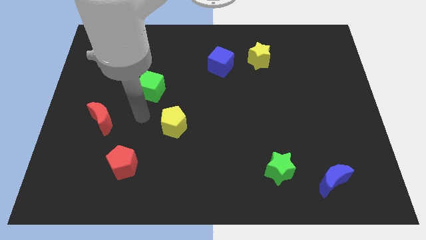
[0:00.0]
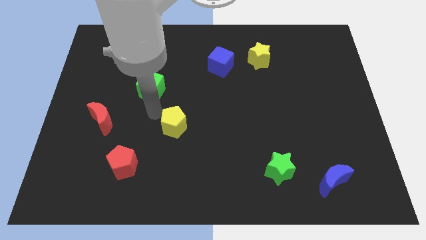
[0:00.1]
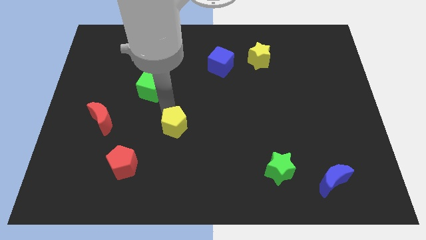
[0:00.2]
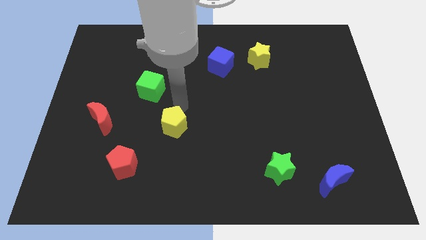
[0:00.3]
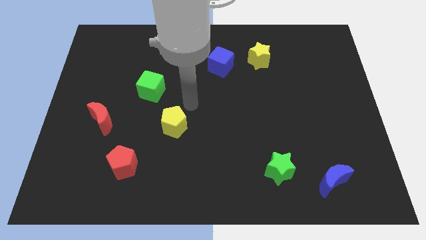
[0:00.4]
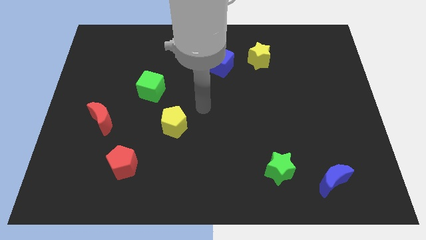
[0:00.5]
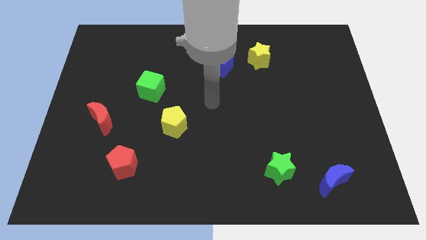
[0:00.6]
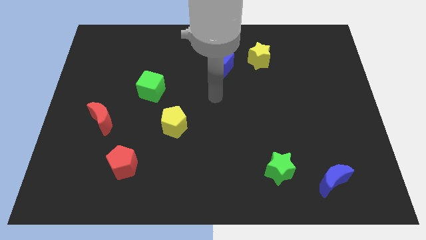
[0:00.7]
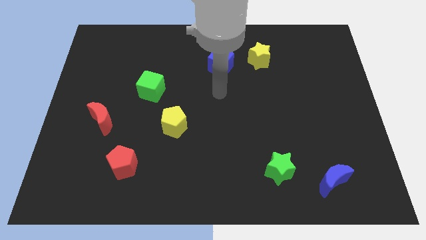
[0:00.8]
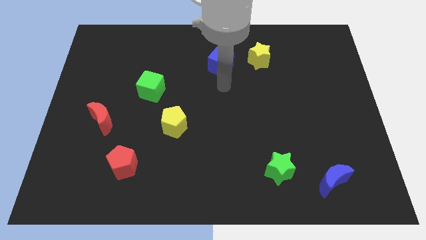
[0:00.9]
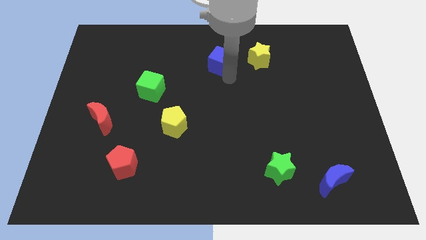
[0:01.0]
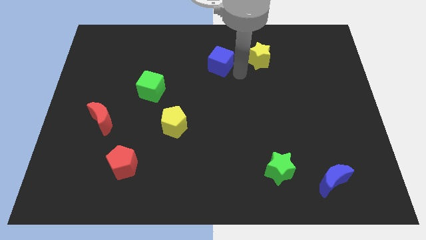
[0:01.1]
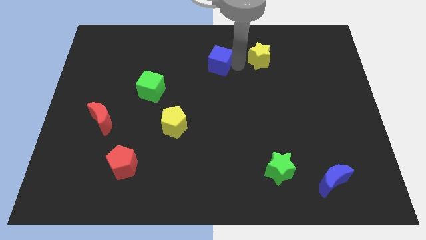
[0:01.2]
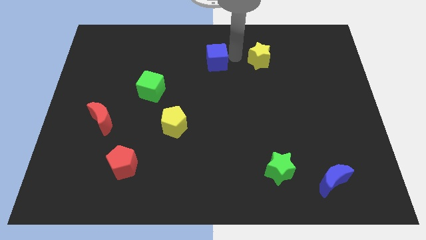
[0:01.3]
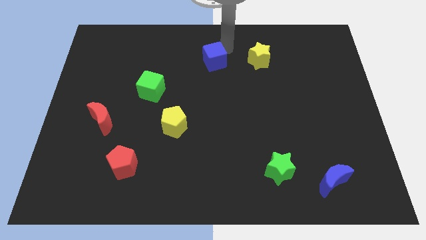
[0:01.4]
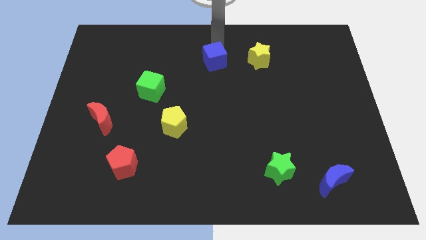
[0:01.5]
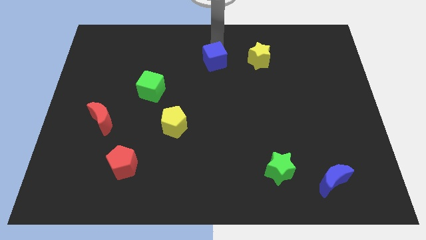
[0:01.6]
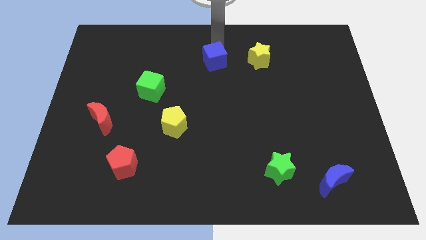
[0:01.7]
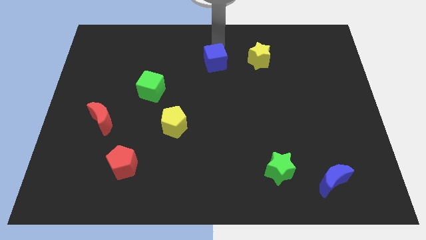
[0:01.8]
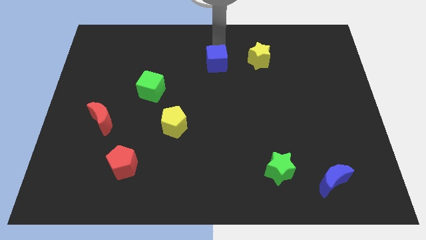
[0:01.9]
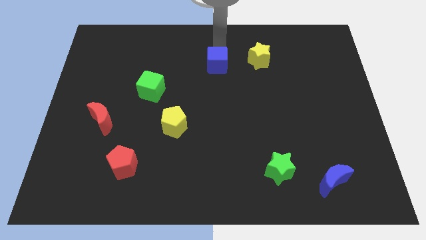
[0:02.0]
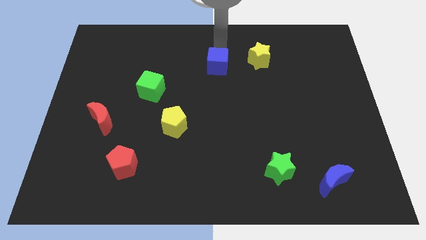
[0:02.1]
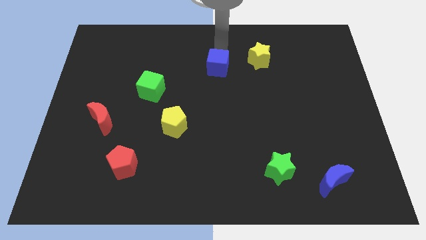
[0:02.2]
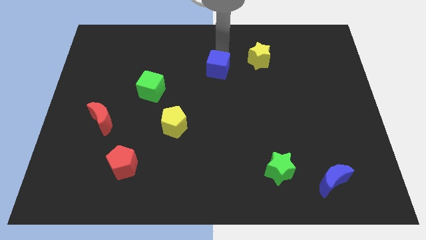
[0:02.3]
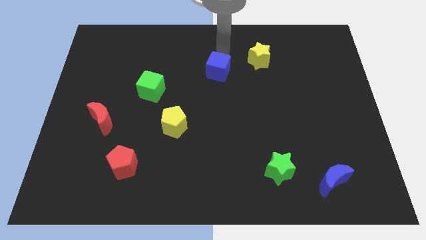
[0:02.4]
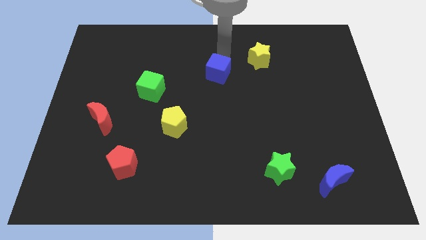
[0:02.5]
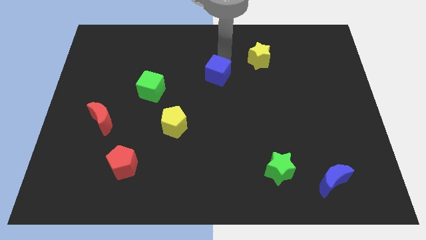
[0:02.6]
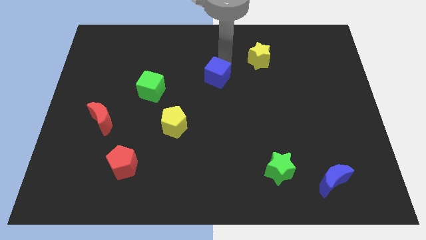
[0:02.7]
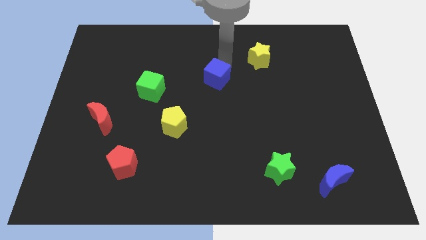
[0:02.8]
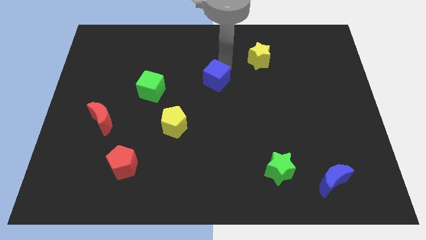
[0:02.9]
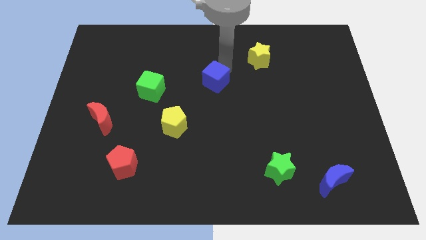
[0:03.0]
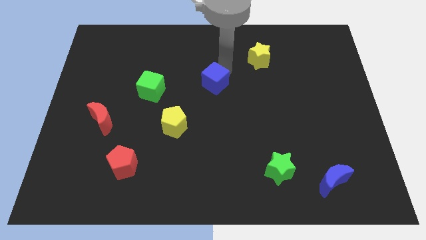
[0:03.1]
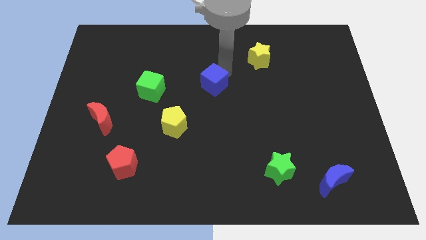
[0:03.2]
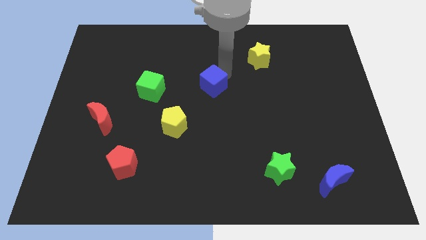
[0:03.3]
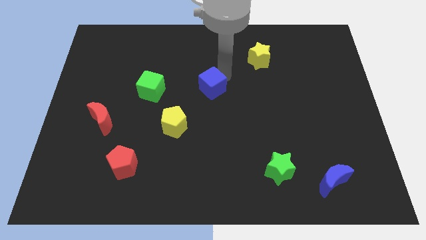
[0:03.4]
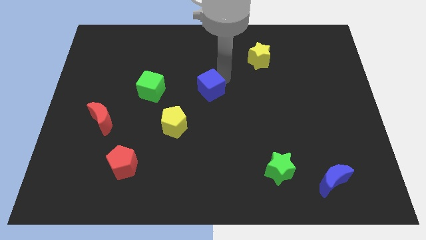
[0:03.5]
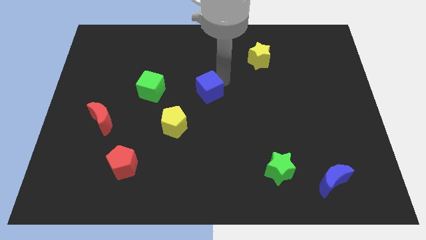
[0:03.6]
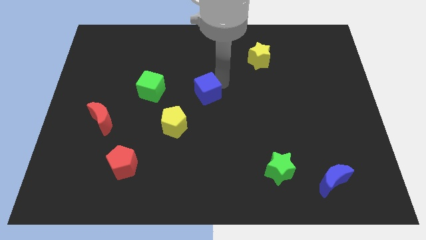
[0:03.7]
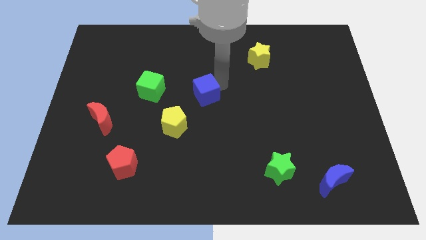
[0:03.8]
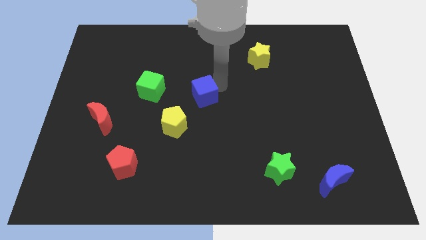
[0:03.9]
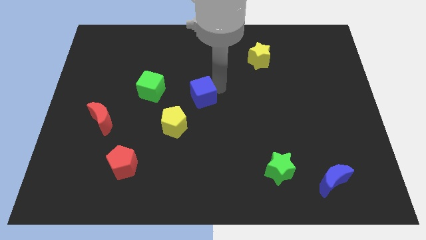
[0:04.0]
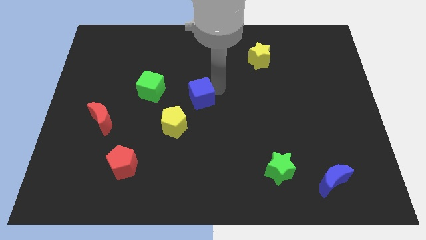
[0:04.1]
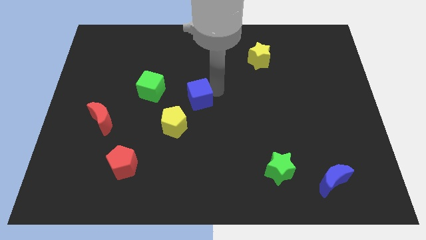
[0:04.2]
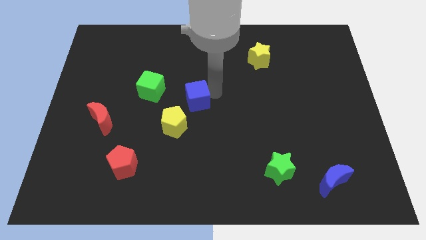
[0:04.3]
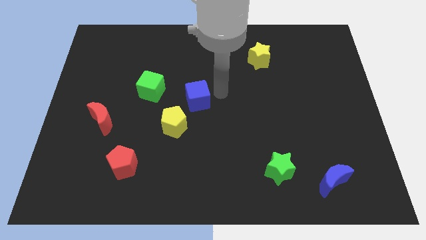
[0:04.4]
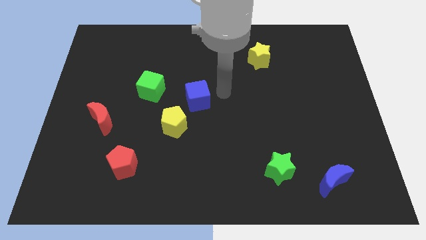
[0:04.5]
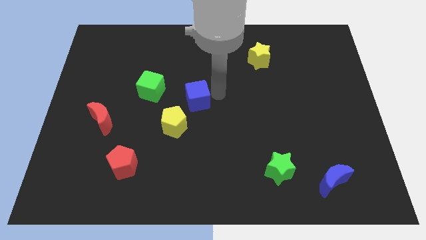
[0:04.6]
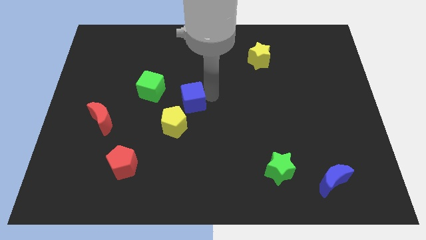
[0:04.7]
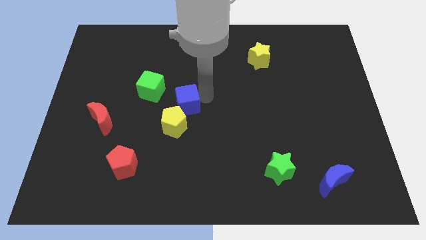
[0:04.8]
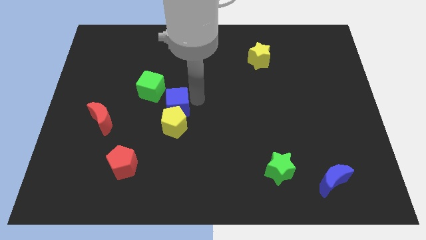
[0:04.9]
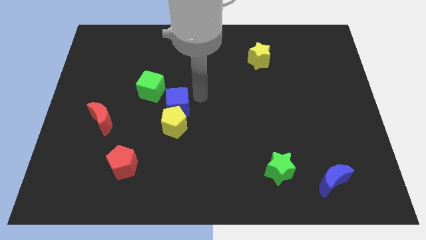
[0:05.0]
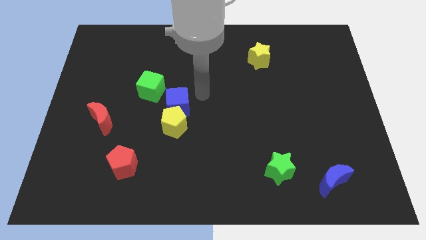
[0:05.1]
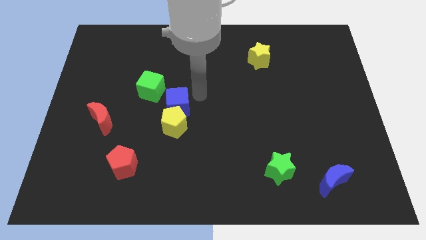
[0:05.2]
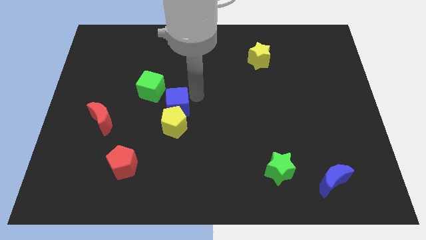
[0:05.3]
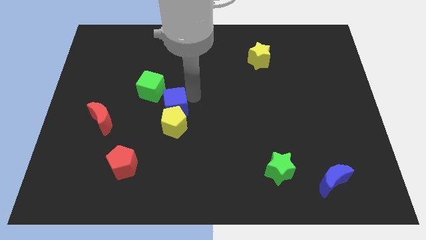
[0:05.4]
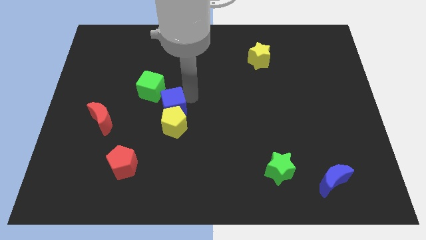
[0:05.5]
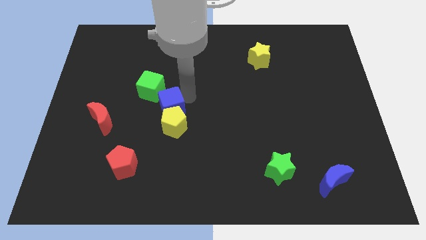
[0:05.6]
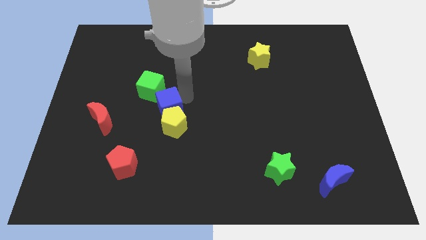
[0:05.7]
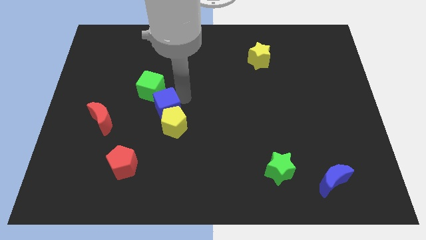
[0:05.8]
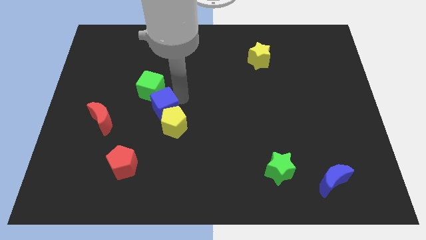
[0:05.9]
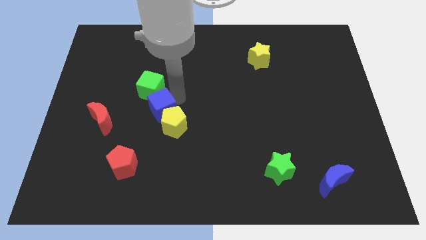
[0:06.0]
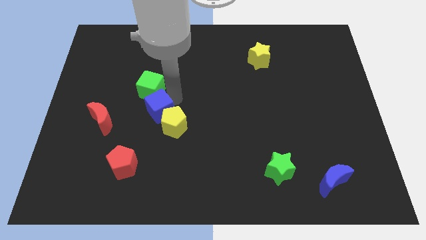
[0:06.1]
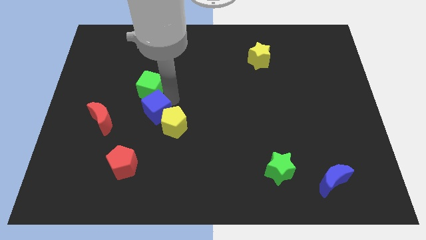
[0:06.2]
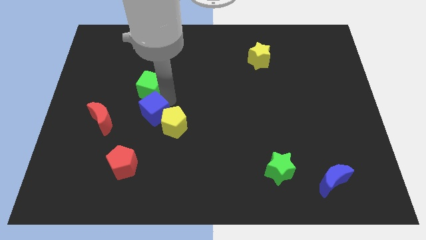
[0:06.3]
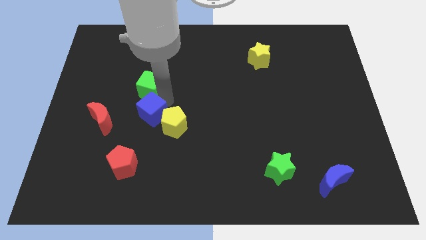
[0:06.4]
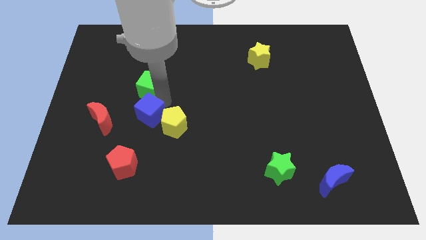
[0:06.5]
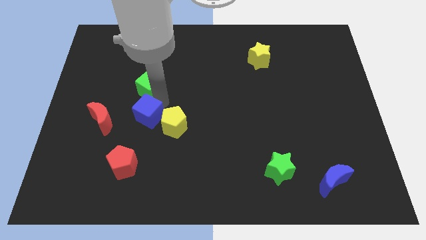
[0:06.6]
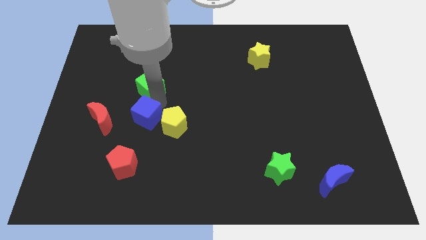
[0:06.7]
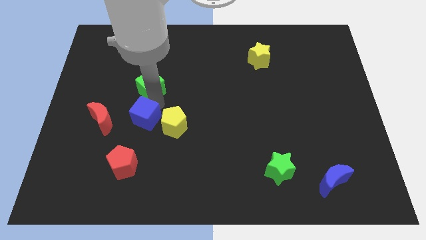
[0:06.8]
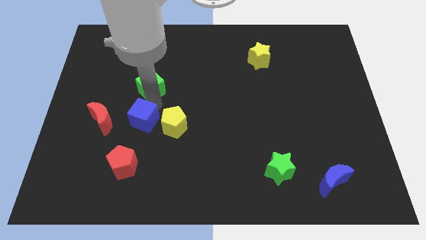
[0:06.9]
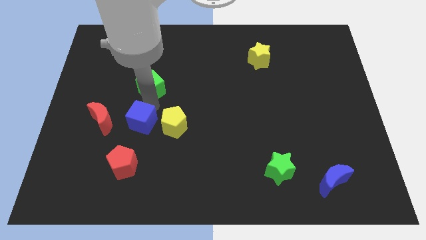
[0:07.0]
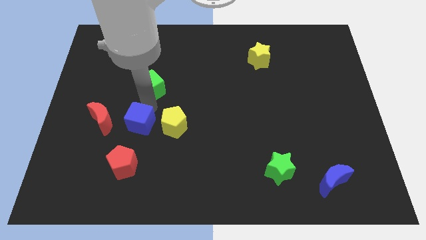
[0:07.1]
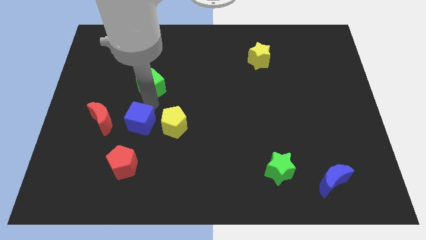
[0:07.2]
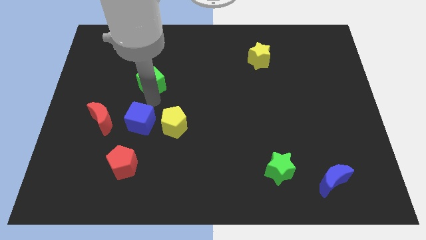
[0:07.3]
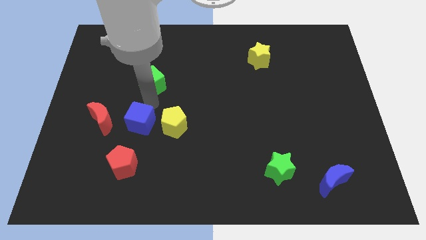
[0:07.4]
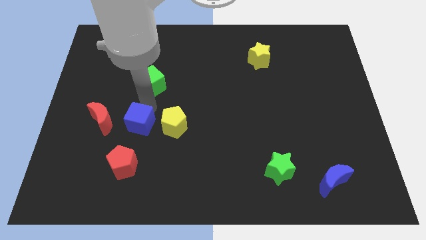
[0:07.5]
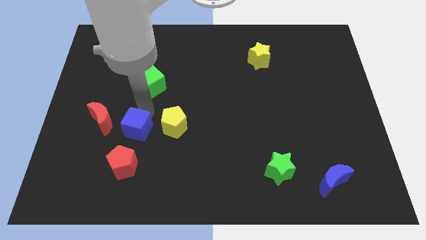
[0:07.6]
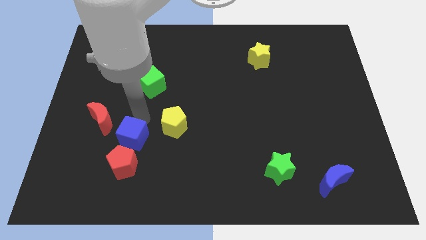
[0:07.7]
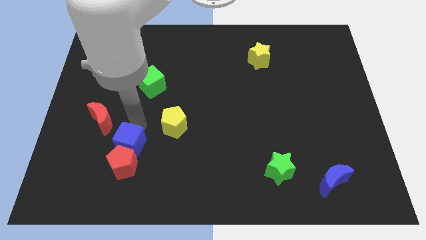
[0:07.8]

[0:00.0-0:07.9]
slide the blue cube close to the red pentagon
